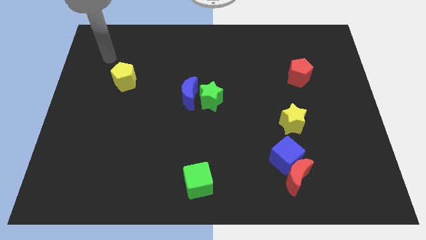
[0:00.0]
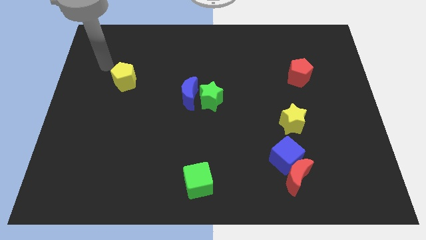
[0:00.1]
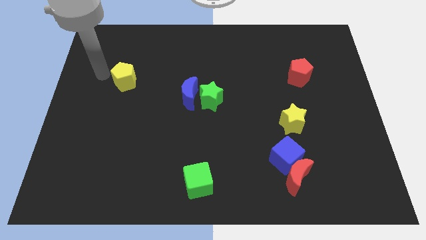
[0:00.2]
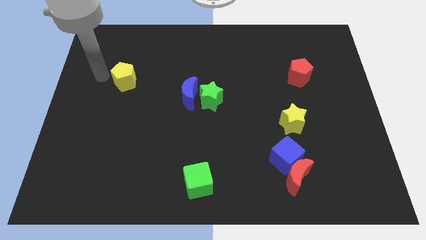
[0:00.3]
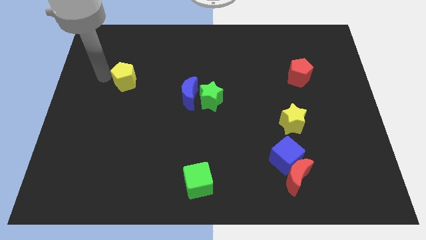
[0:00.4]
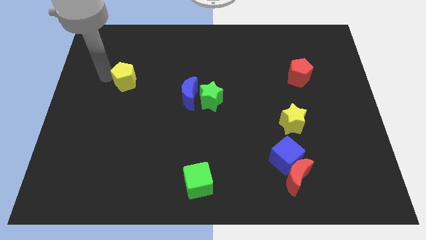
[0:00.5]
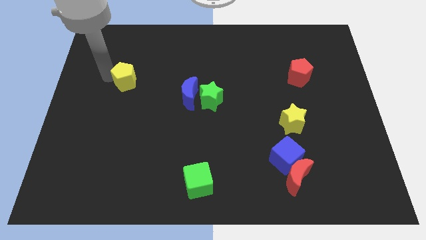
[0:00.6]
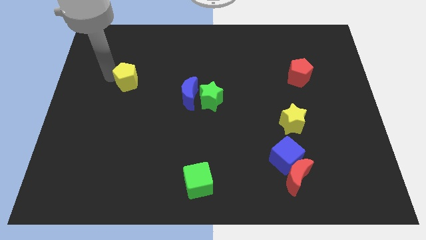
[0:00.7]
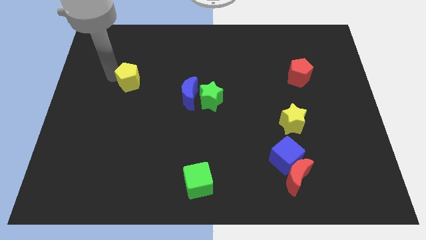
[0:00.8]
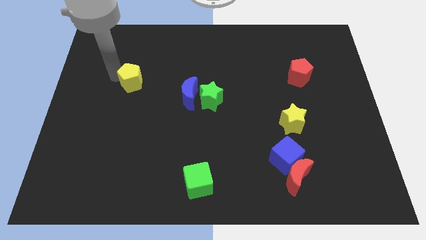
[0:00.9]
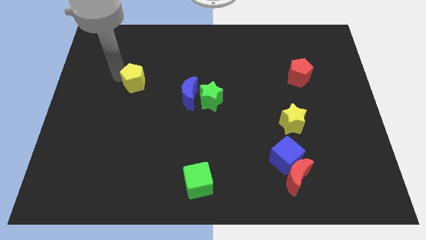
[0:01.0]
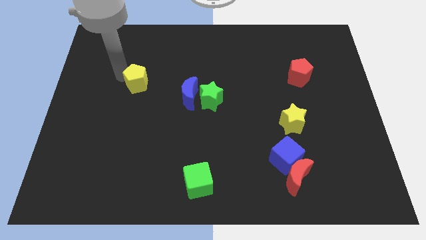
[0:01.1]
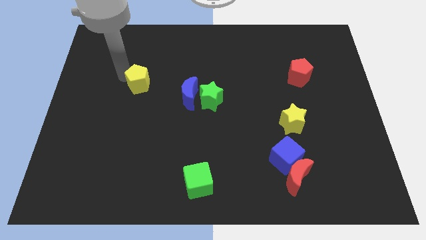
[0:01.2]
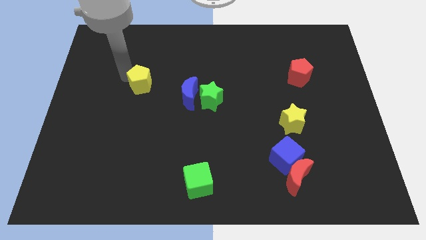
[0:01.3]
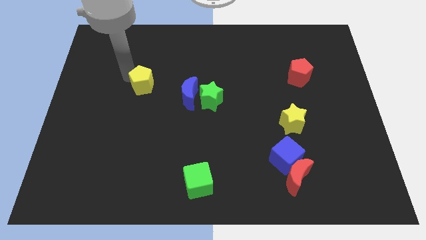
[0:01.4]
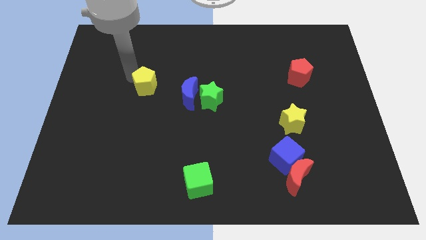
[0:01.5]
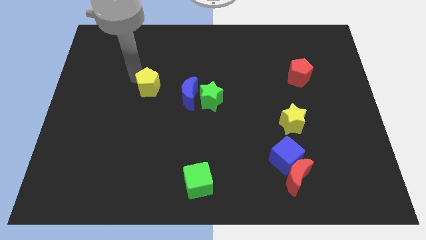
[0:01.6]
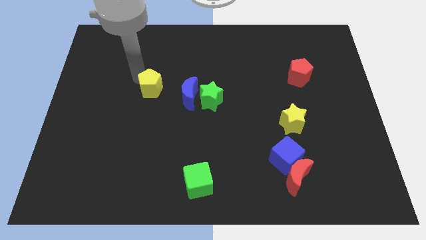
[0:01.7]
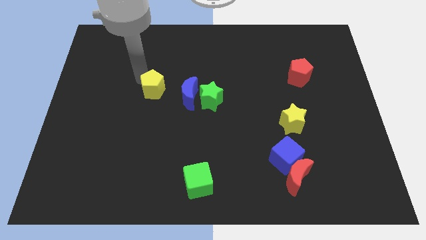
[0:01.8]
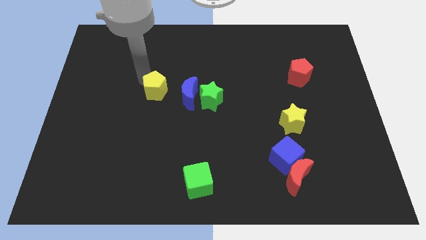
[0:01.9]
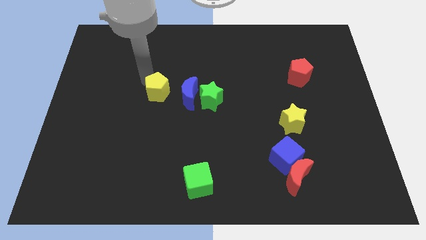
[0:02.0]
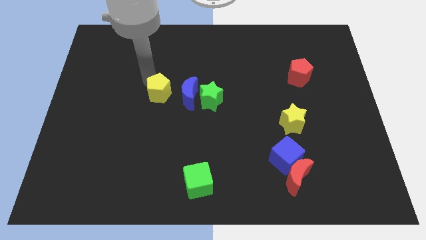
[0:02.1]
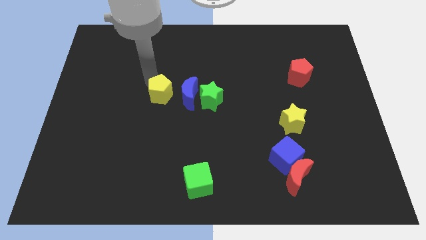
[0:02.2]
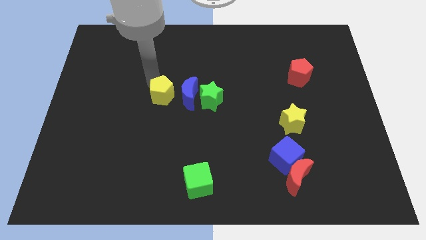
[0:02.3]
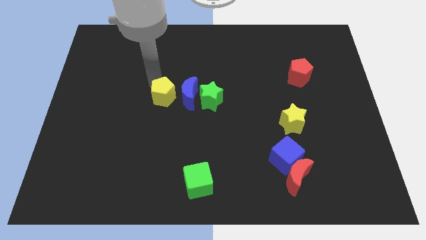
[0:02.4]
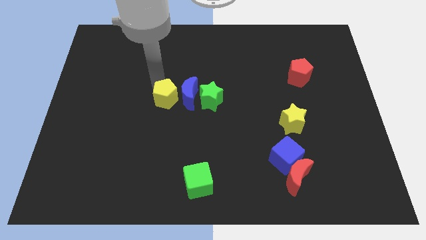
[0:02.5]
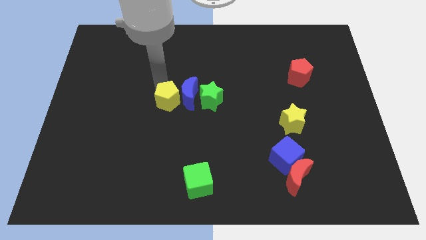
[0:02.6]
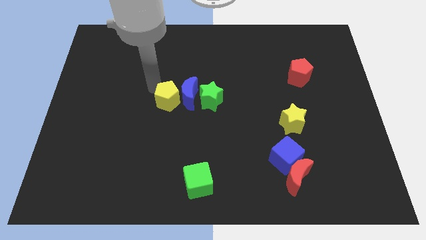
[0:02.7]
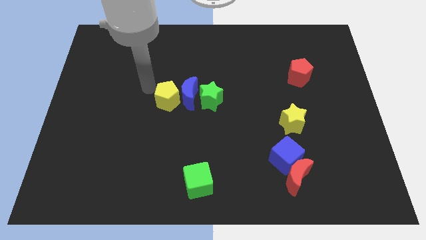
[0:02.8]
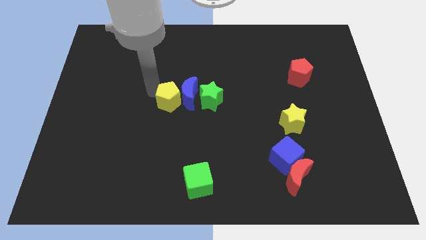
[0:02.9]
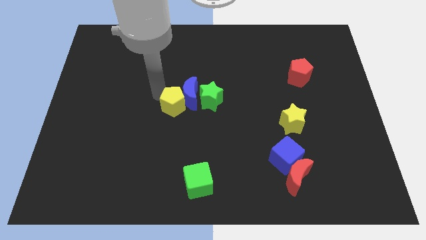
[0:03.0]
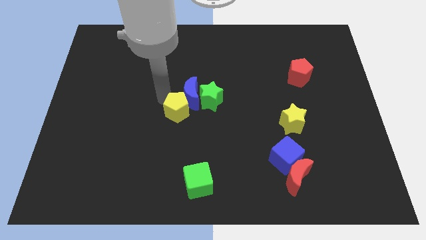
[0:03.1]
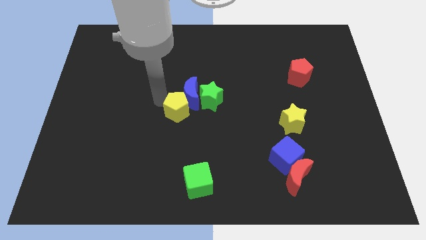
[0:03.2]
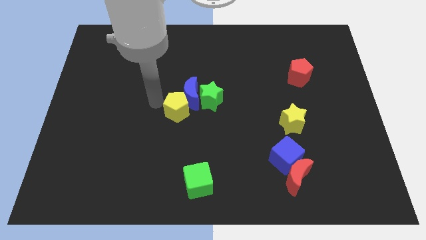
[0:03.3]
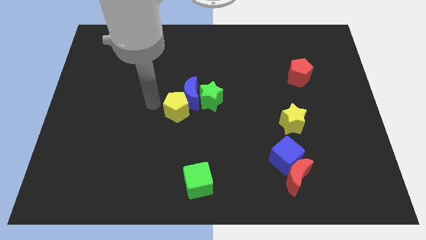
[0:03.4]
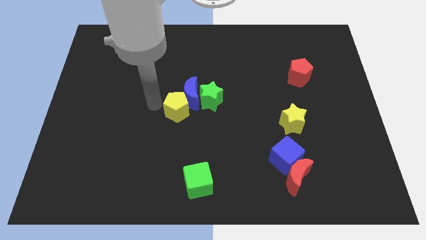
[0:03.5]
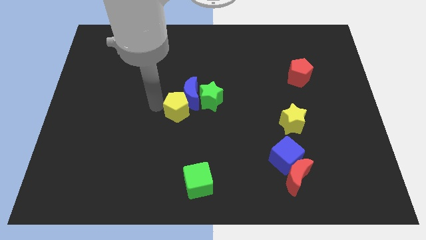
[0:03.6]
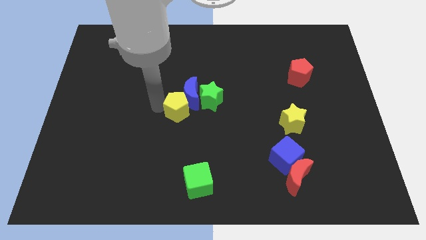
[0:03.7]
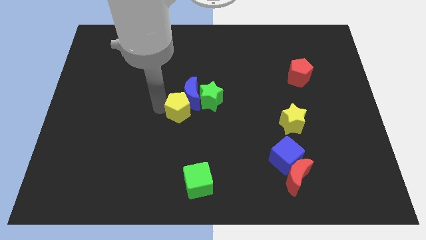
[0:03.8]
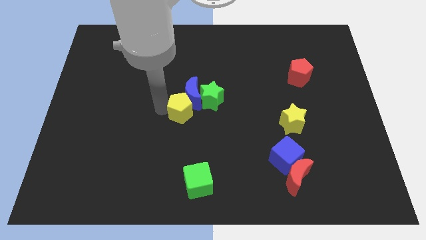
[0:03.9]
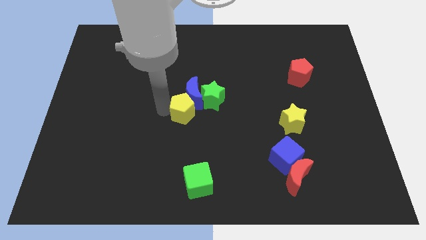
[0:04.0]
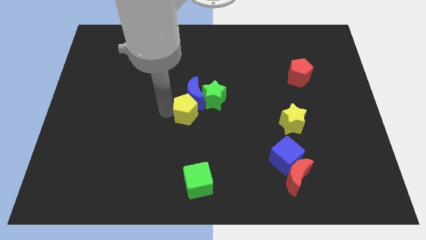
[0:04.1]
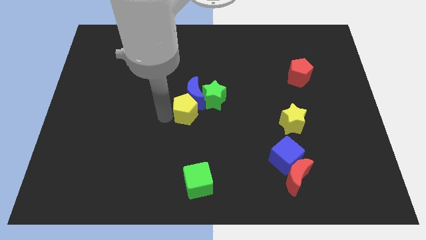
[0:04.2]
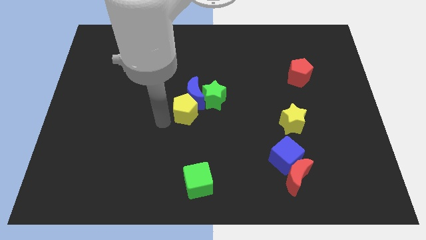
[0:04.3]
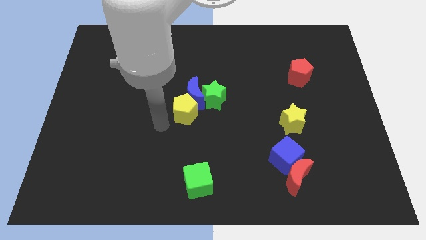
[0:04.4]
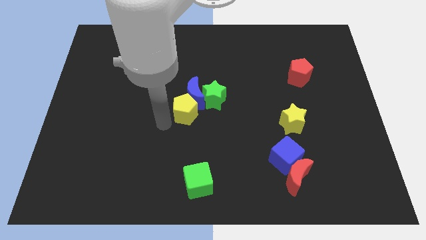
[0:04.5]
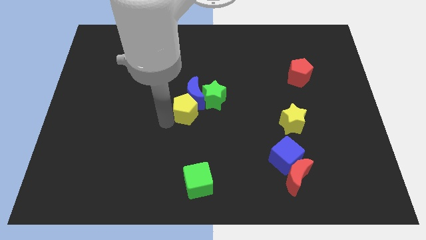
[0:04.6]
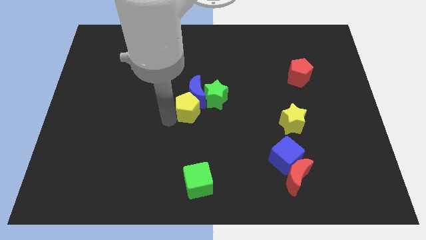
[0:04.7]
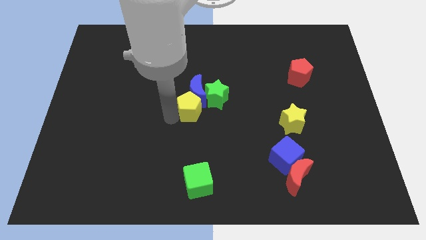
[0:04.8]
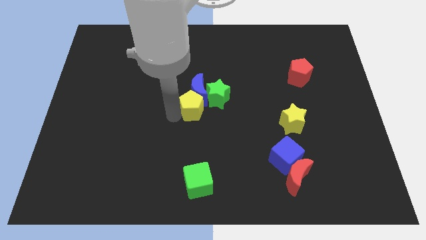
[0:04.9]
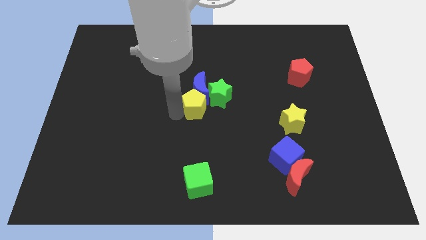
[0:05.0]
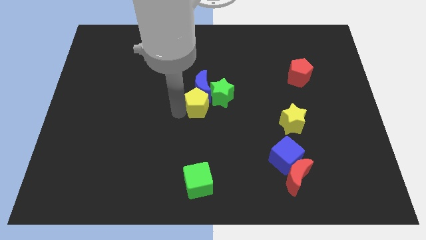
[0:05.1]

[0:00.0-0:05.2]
push the yellow pentagon to the green star

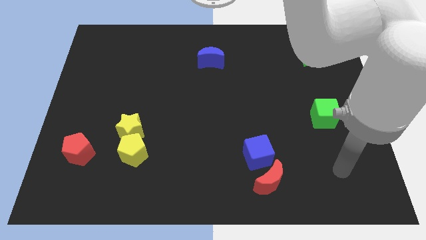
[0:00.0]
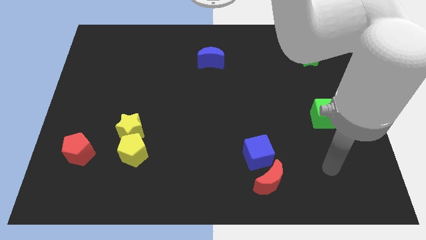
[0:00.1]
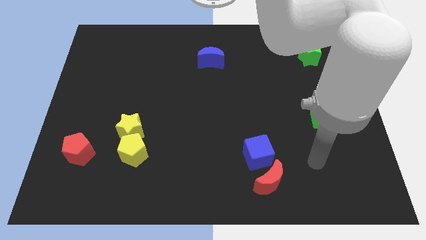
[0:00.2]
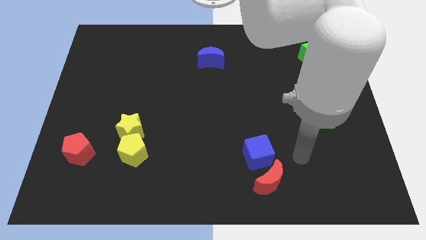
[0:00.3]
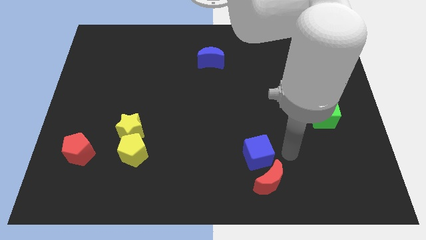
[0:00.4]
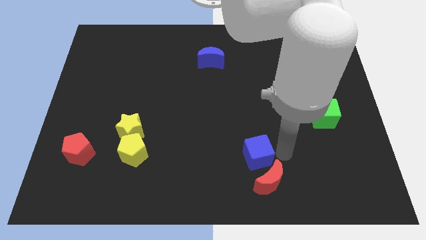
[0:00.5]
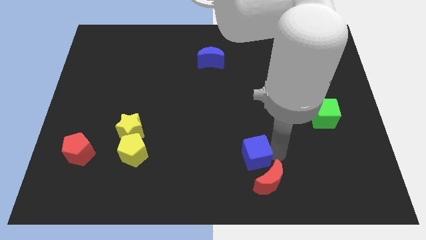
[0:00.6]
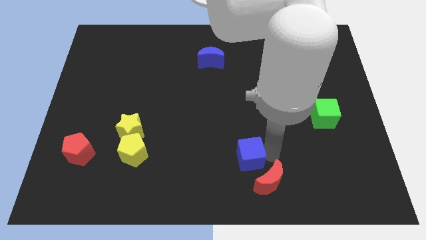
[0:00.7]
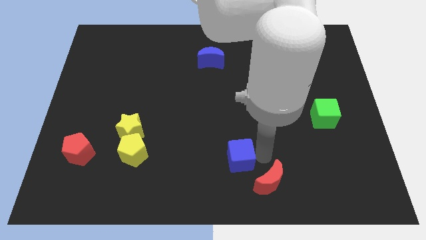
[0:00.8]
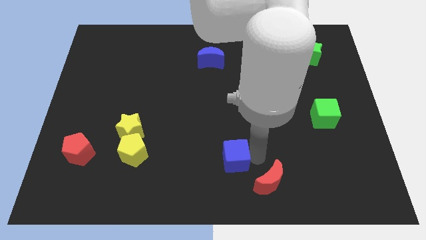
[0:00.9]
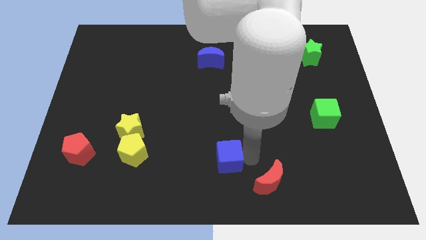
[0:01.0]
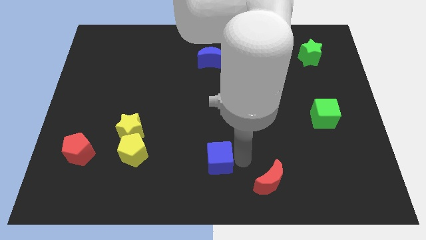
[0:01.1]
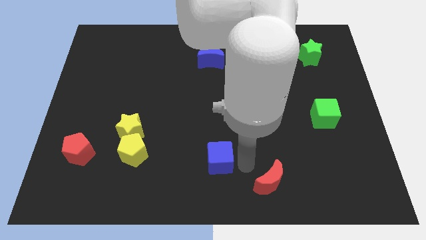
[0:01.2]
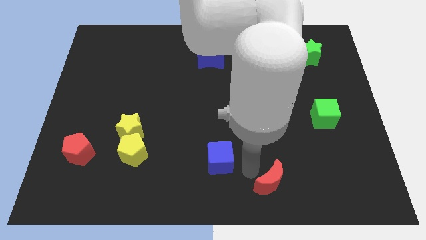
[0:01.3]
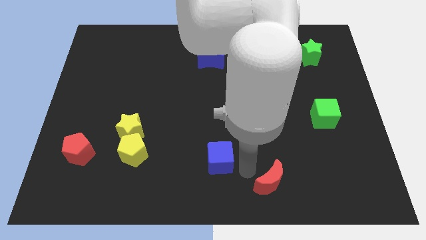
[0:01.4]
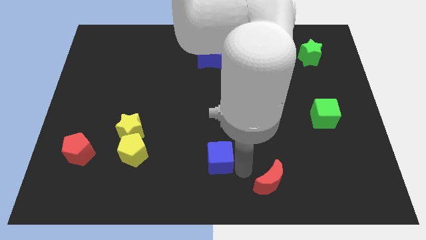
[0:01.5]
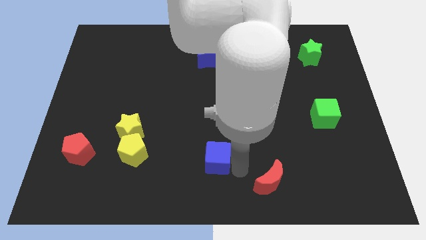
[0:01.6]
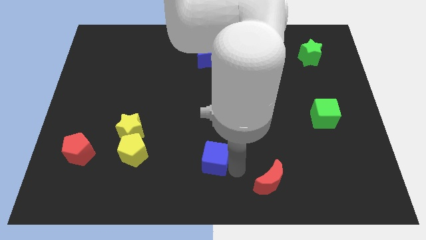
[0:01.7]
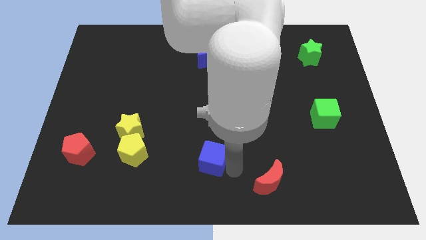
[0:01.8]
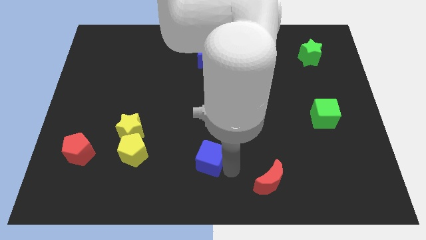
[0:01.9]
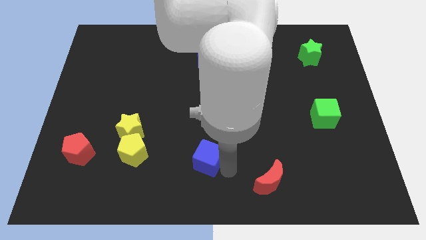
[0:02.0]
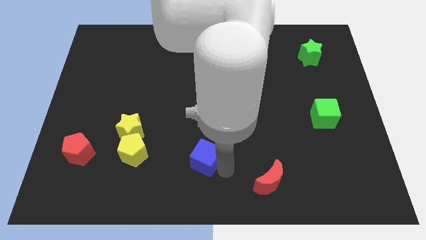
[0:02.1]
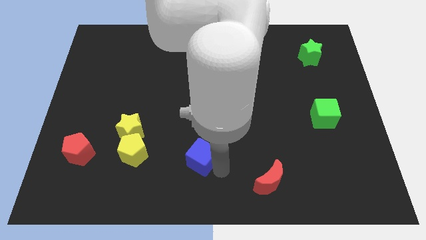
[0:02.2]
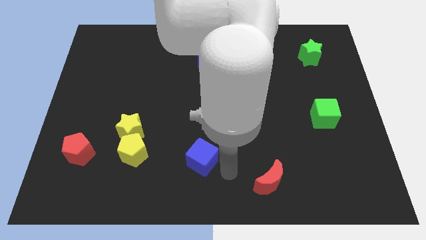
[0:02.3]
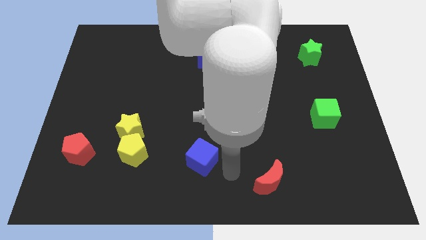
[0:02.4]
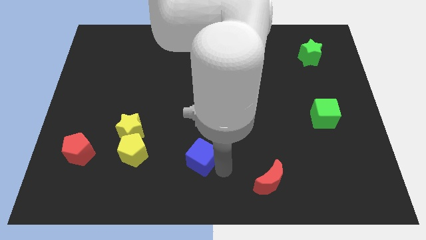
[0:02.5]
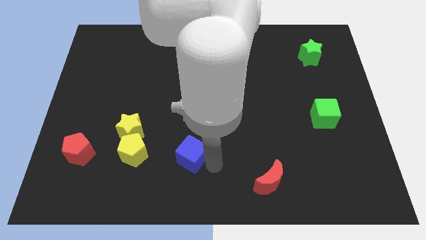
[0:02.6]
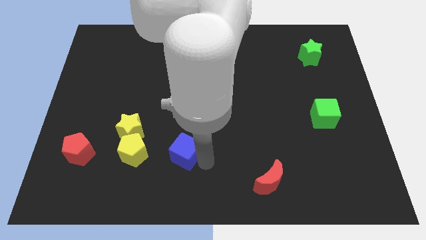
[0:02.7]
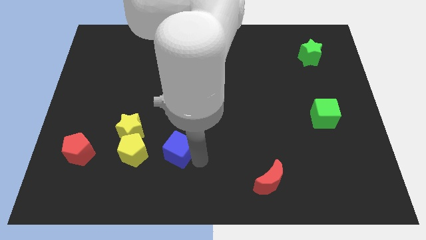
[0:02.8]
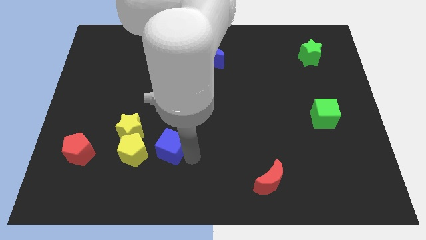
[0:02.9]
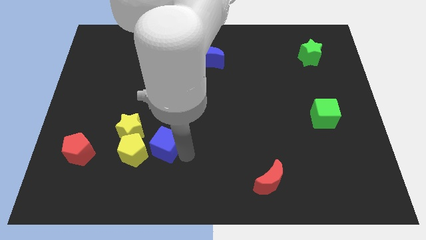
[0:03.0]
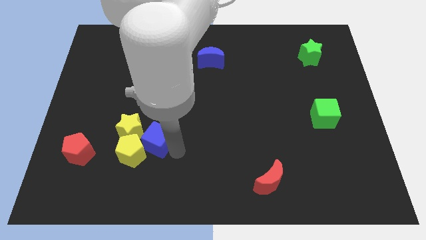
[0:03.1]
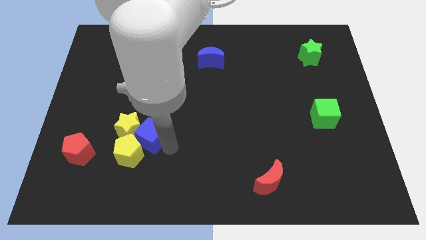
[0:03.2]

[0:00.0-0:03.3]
move the blue cube to the yellow star
